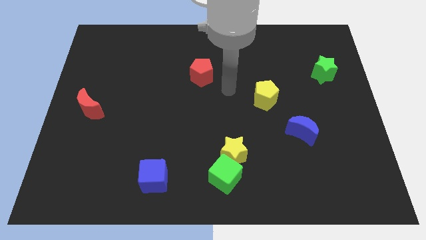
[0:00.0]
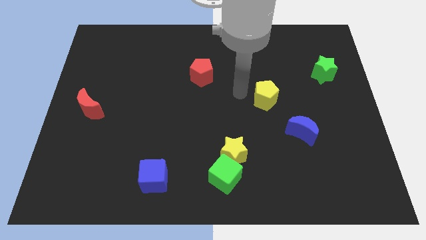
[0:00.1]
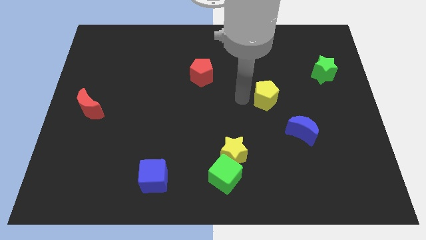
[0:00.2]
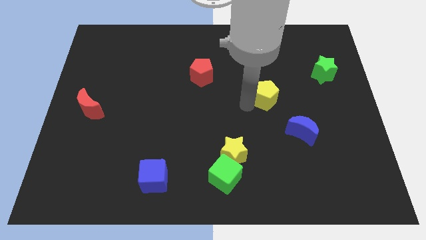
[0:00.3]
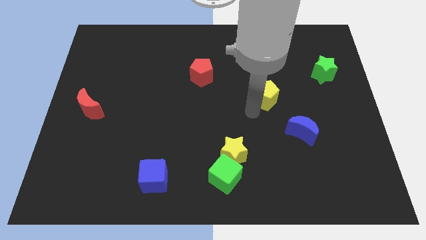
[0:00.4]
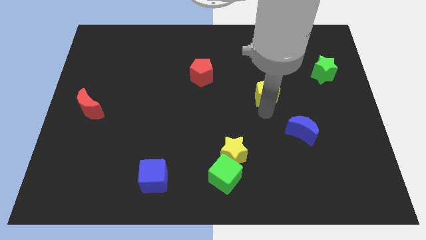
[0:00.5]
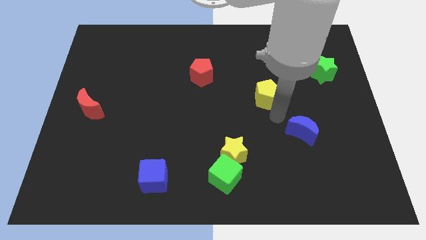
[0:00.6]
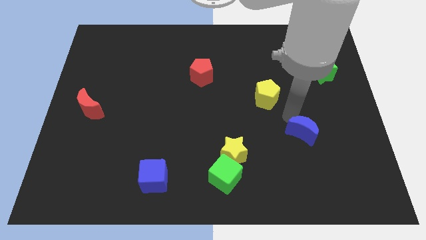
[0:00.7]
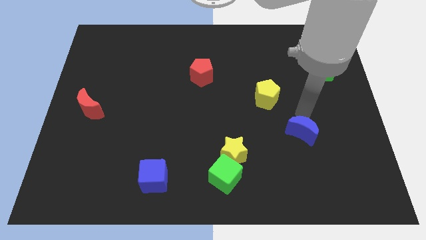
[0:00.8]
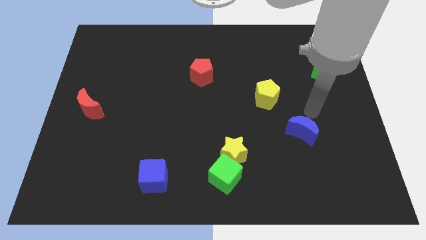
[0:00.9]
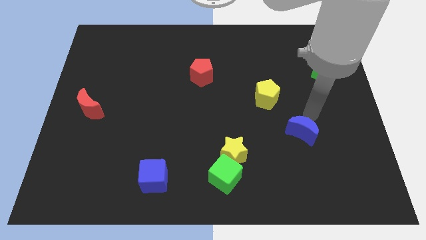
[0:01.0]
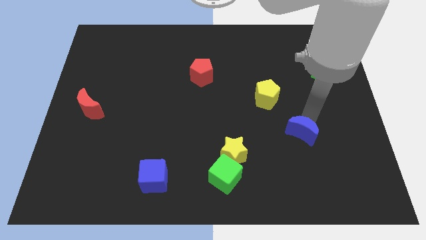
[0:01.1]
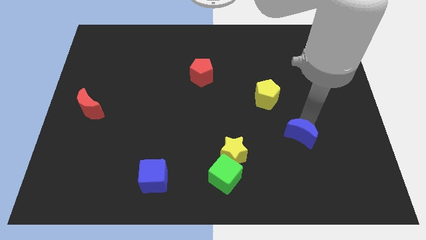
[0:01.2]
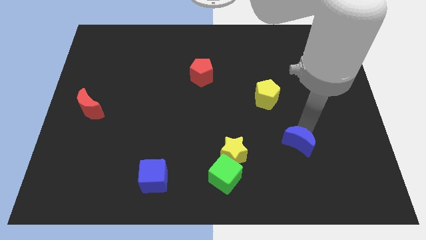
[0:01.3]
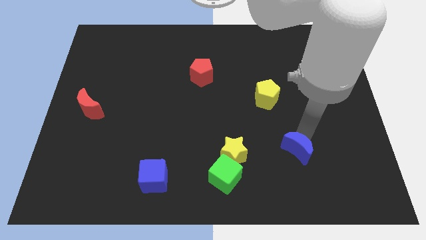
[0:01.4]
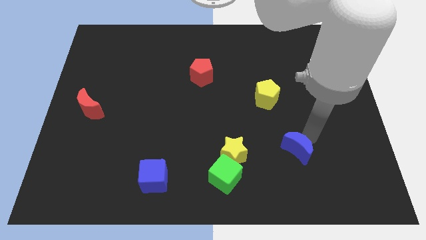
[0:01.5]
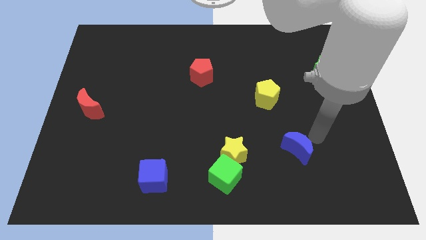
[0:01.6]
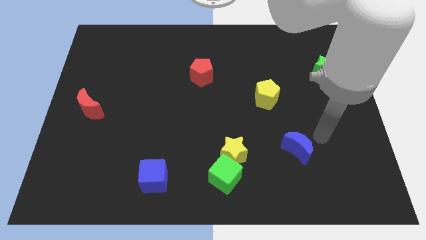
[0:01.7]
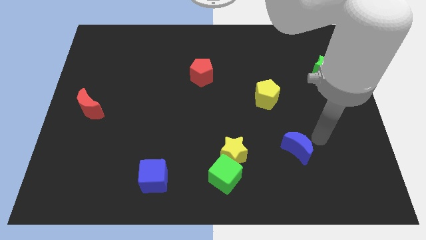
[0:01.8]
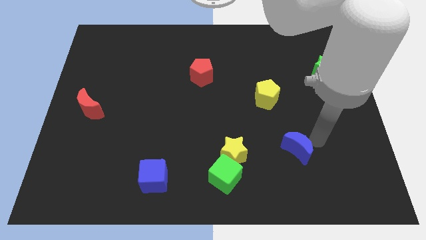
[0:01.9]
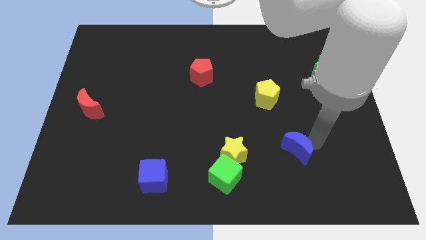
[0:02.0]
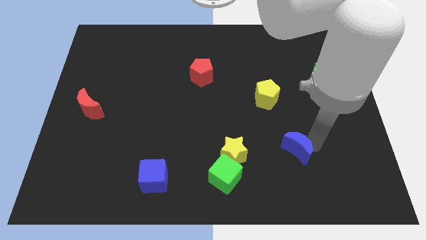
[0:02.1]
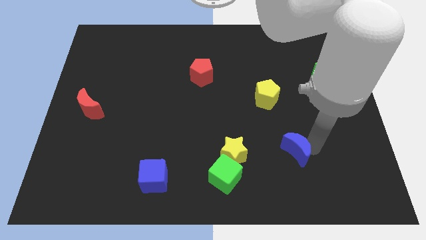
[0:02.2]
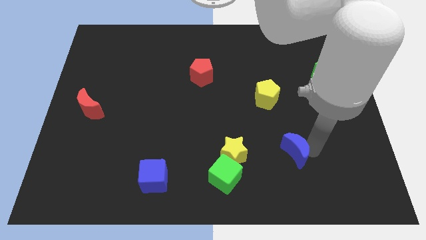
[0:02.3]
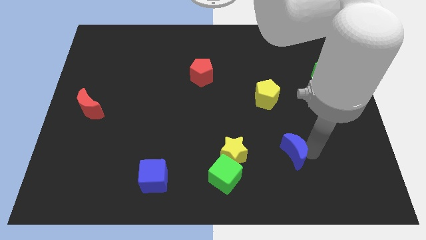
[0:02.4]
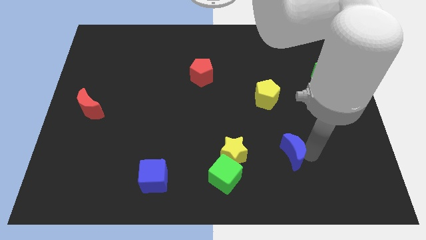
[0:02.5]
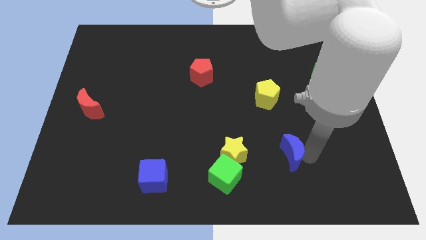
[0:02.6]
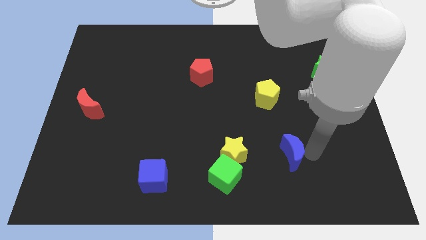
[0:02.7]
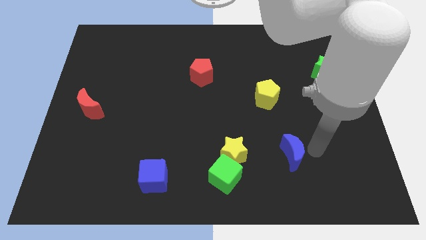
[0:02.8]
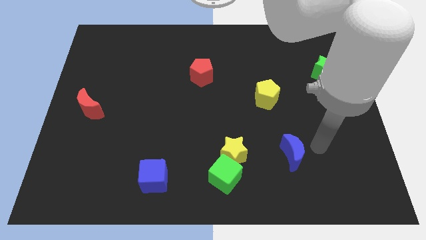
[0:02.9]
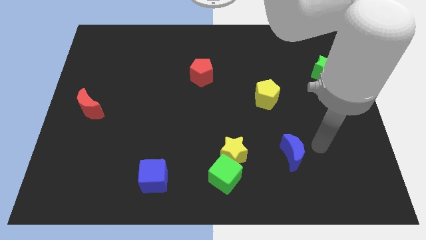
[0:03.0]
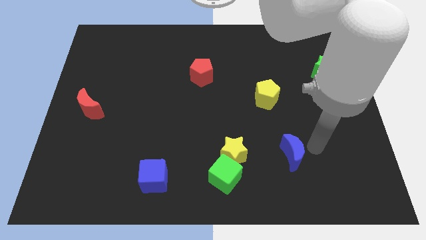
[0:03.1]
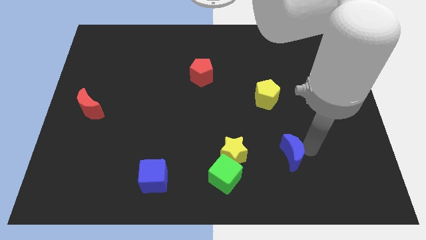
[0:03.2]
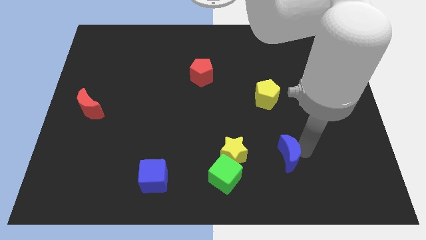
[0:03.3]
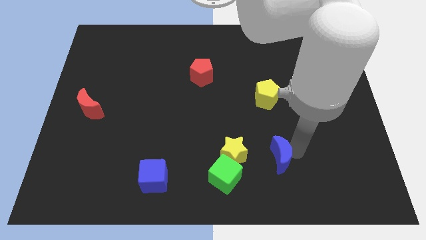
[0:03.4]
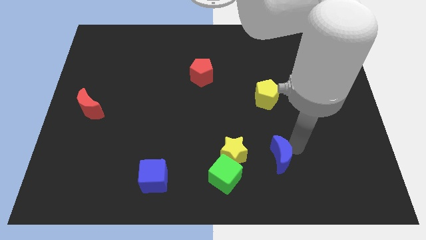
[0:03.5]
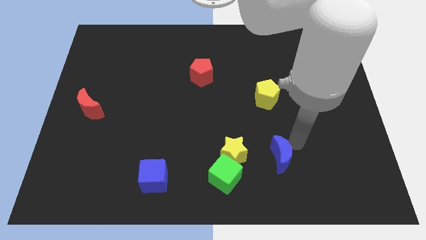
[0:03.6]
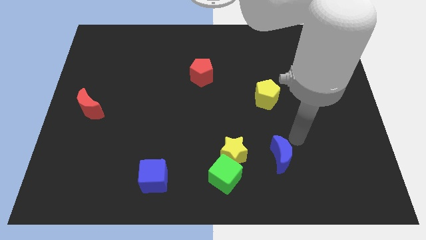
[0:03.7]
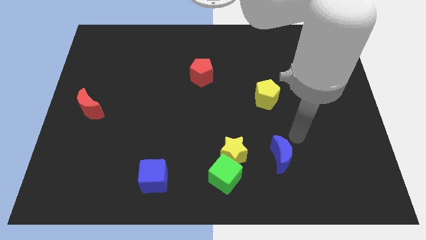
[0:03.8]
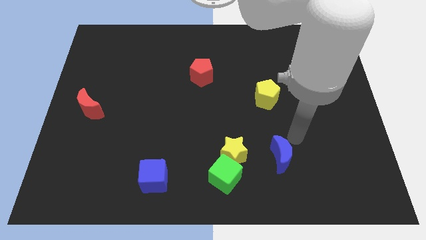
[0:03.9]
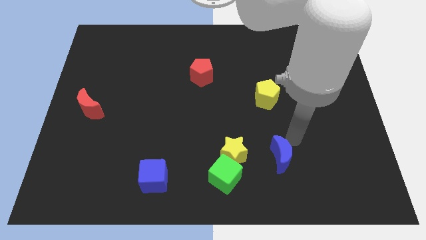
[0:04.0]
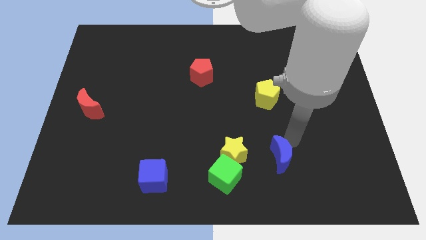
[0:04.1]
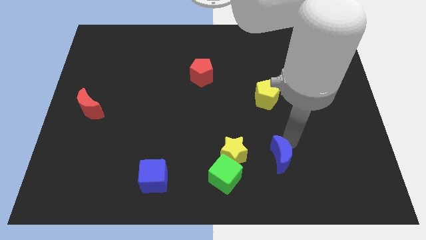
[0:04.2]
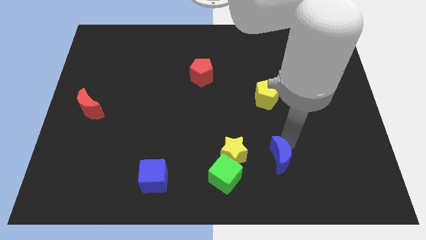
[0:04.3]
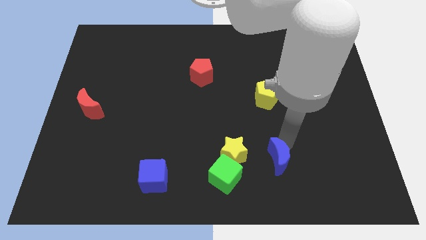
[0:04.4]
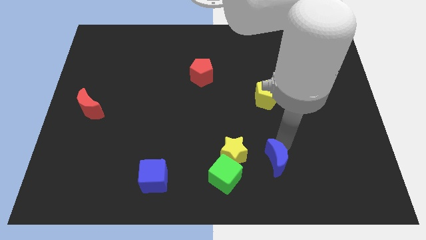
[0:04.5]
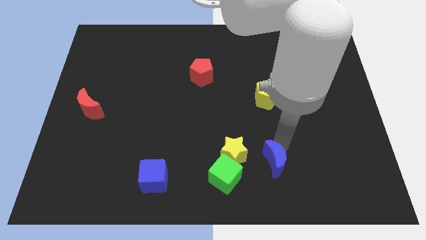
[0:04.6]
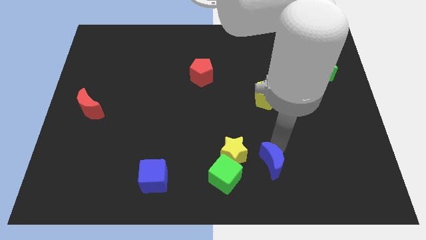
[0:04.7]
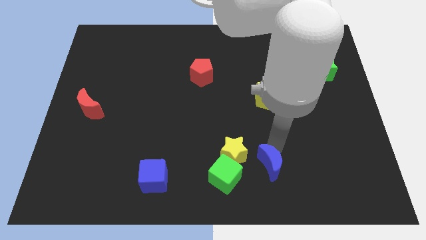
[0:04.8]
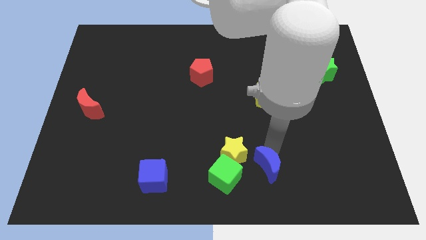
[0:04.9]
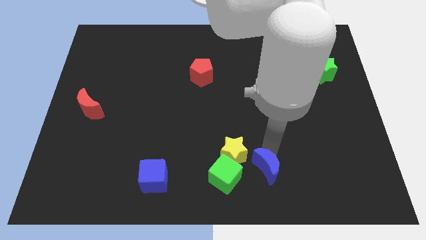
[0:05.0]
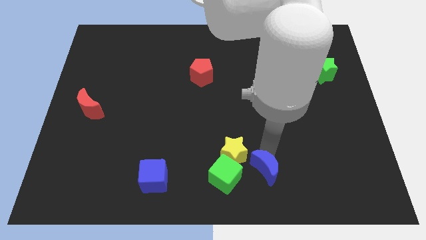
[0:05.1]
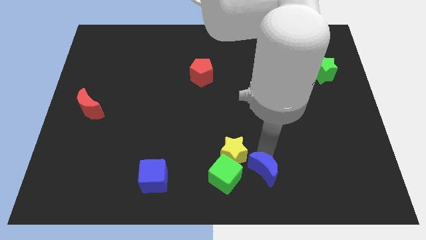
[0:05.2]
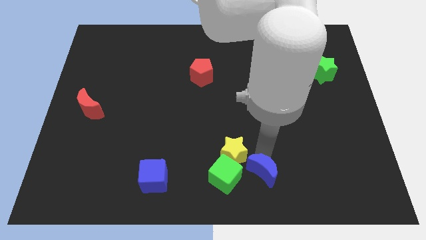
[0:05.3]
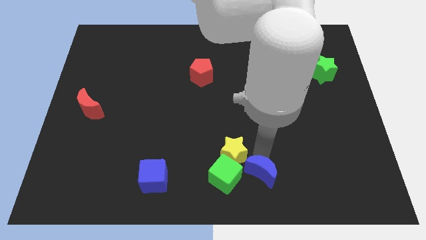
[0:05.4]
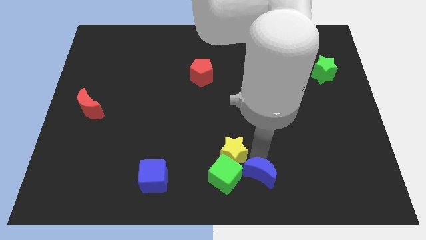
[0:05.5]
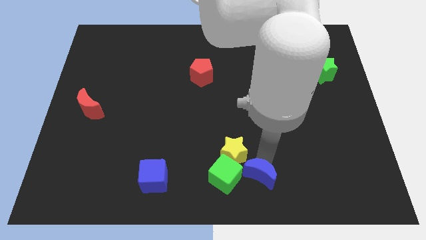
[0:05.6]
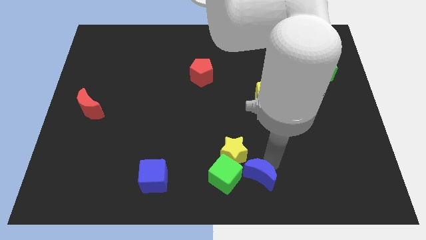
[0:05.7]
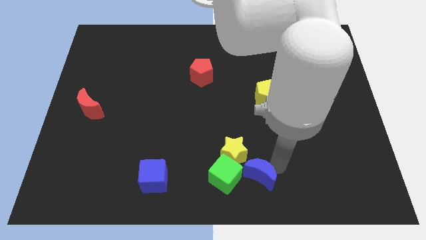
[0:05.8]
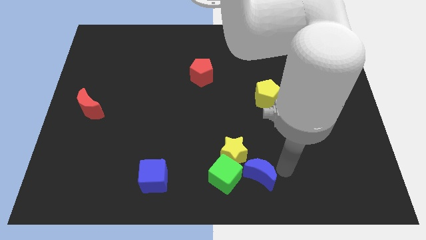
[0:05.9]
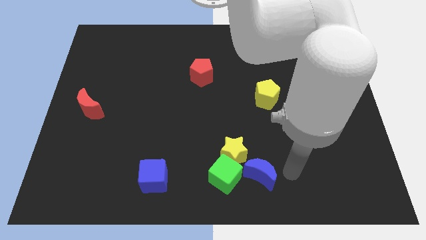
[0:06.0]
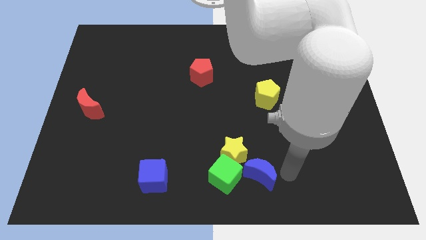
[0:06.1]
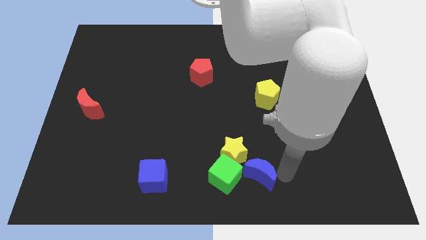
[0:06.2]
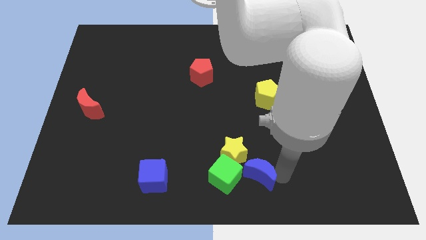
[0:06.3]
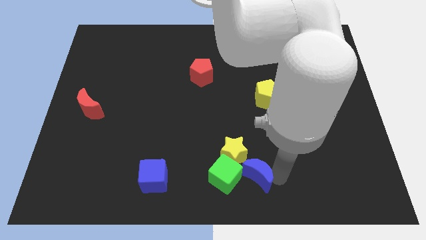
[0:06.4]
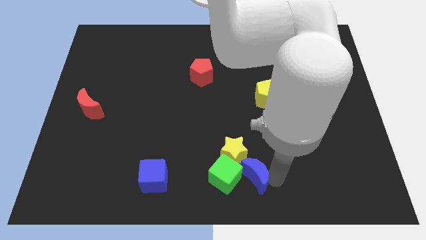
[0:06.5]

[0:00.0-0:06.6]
move the blue moon next to the green cube

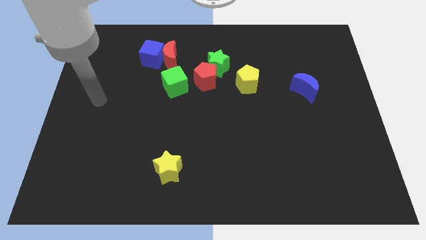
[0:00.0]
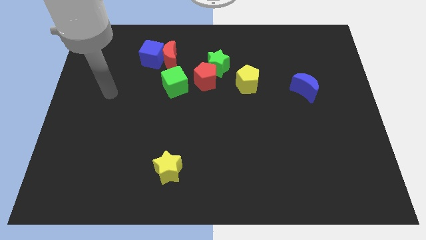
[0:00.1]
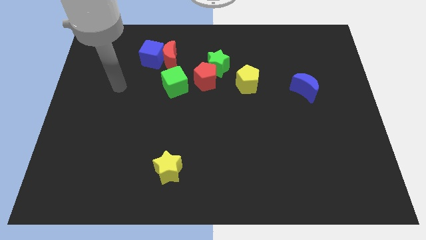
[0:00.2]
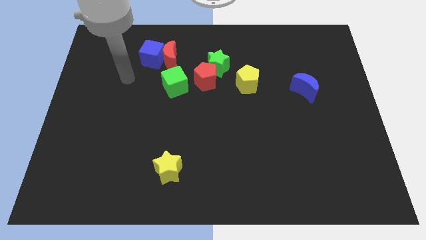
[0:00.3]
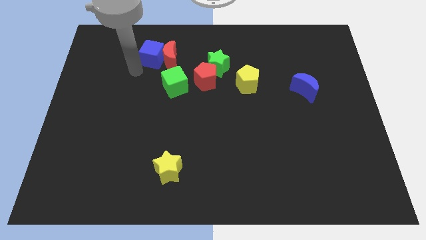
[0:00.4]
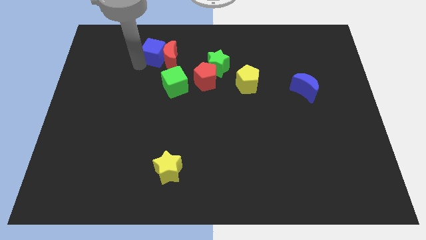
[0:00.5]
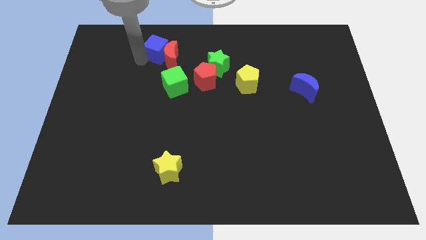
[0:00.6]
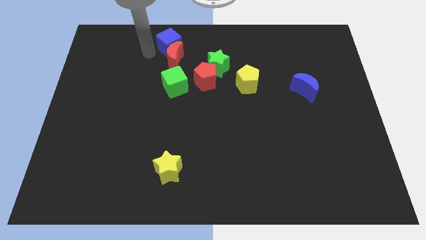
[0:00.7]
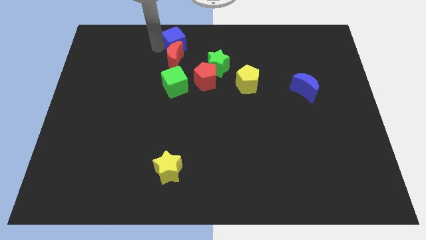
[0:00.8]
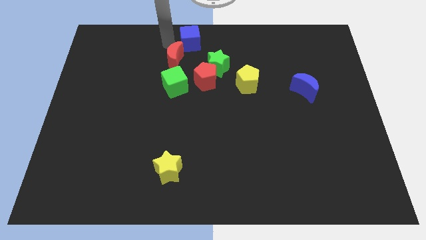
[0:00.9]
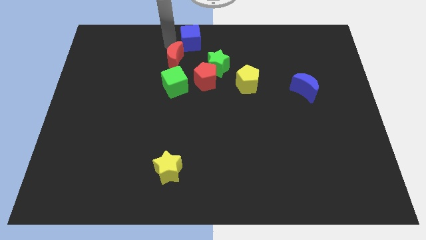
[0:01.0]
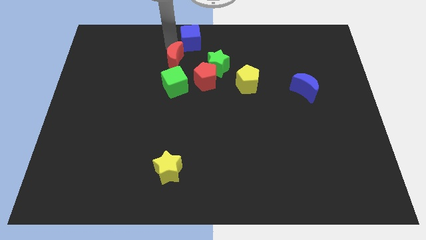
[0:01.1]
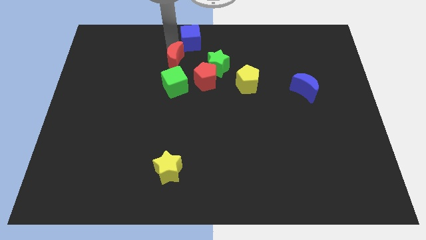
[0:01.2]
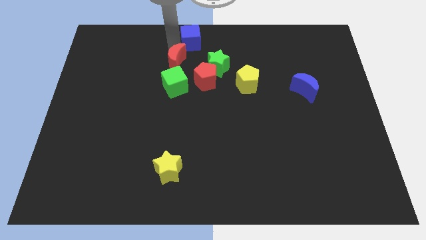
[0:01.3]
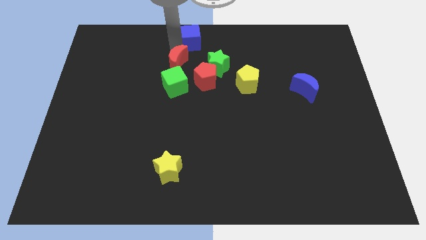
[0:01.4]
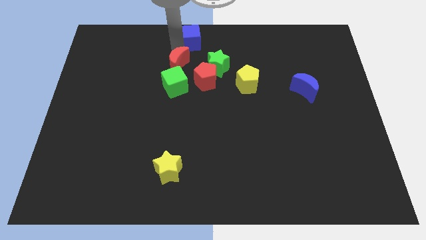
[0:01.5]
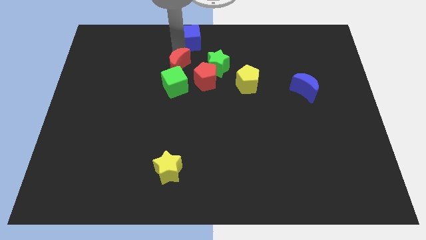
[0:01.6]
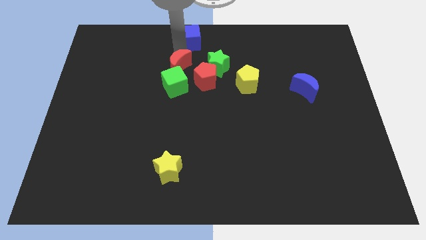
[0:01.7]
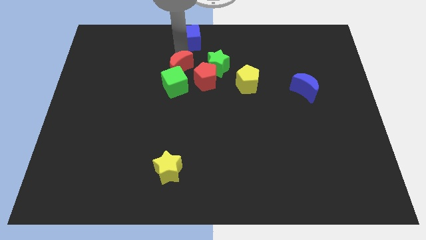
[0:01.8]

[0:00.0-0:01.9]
move the red moon next to the green cube
